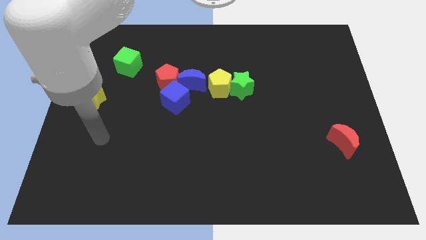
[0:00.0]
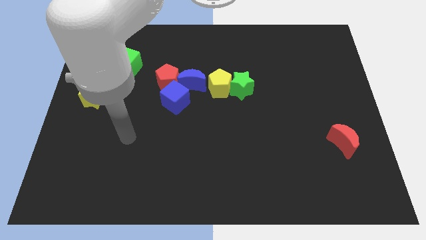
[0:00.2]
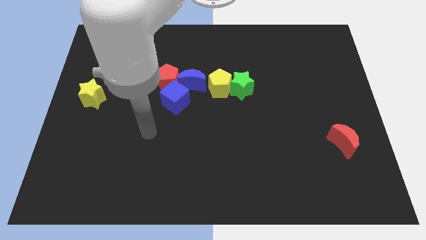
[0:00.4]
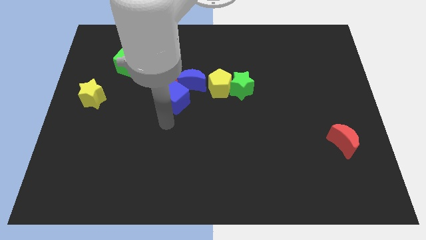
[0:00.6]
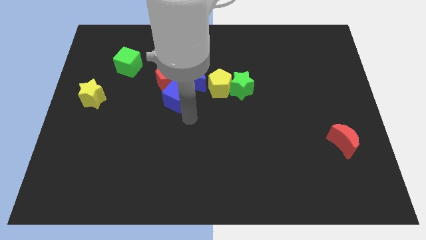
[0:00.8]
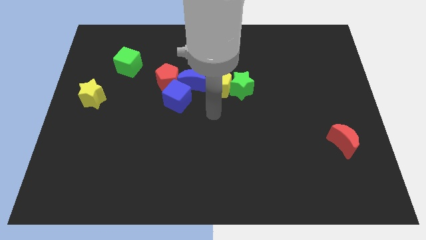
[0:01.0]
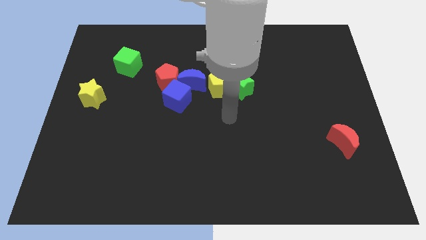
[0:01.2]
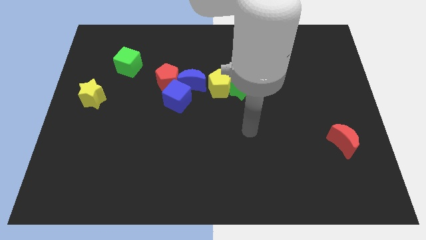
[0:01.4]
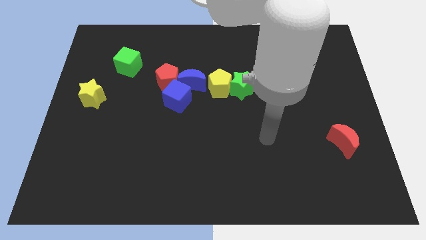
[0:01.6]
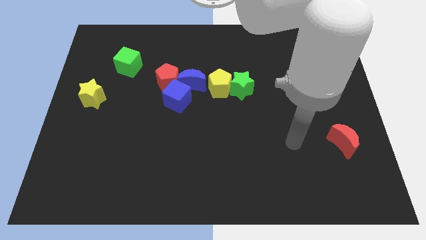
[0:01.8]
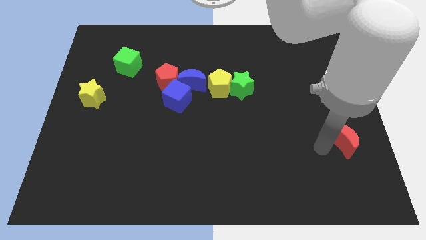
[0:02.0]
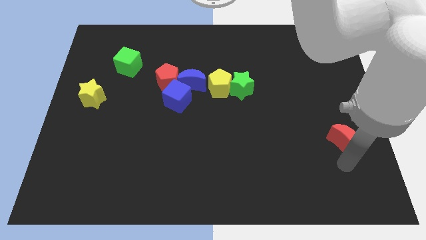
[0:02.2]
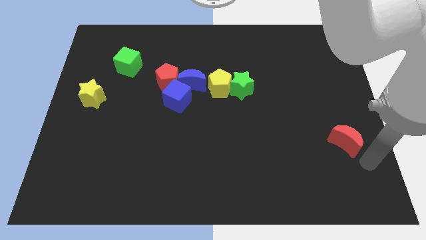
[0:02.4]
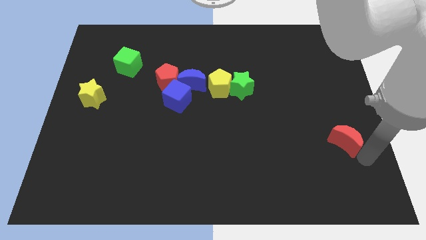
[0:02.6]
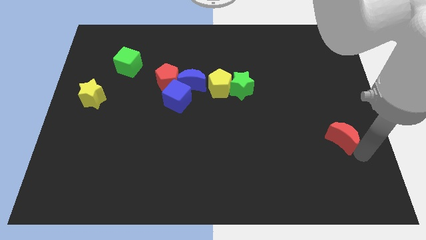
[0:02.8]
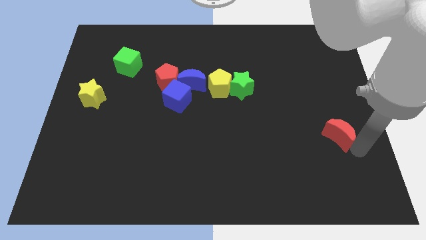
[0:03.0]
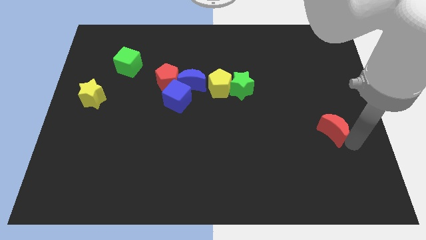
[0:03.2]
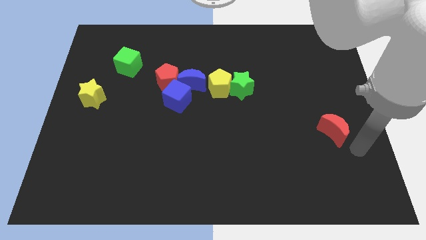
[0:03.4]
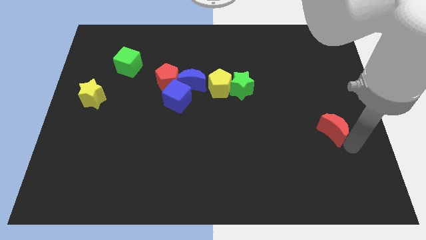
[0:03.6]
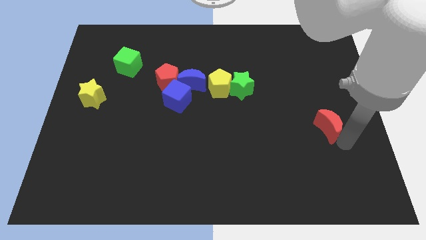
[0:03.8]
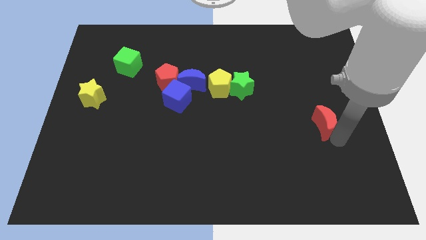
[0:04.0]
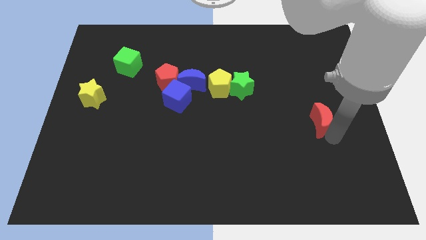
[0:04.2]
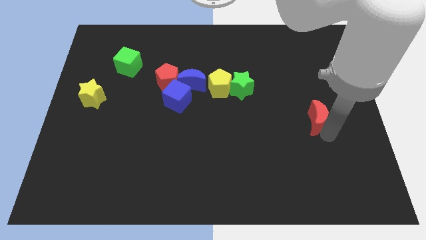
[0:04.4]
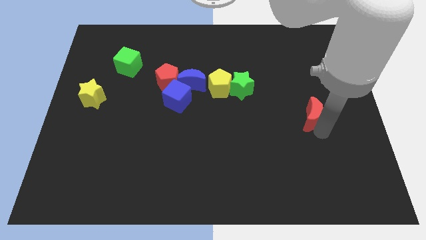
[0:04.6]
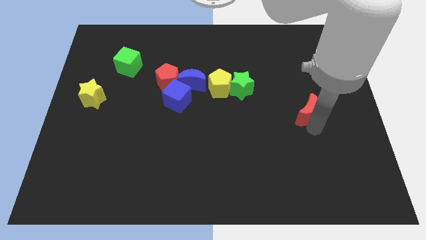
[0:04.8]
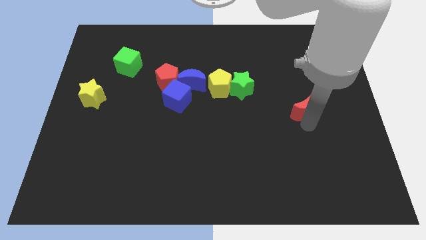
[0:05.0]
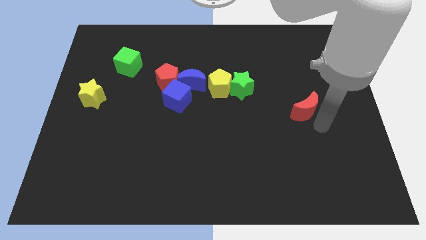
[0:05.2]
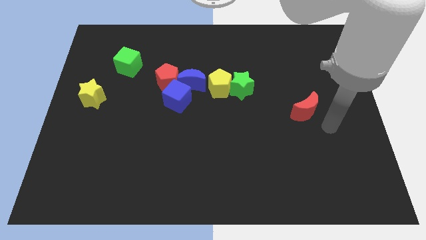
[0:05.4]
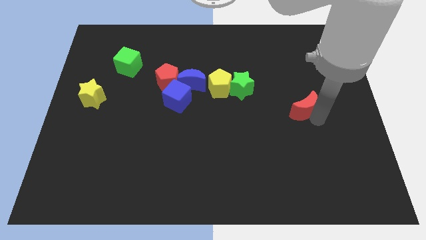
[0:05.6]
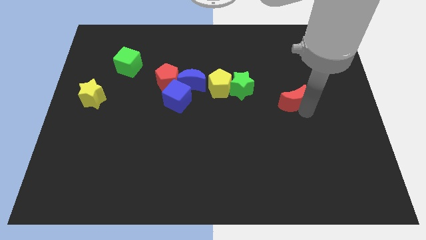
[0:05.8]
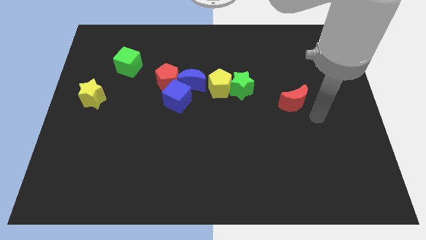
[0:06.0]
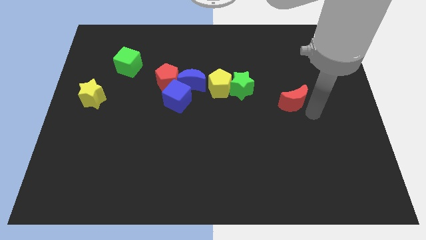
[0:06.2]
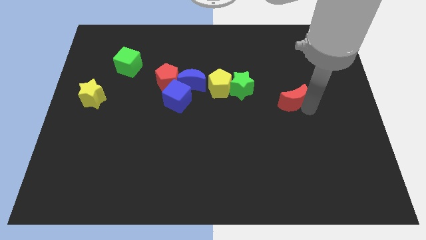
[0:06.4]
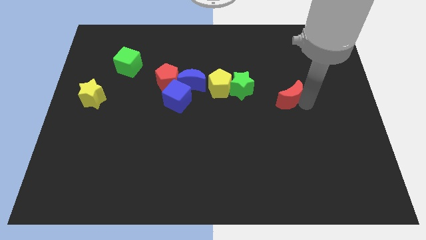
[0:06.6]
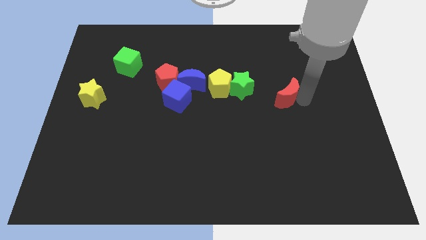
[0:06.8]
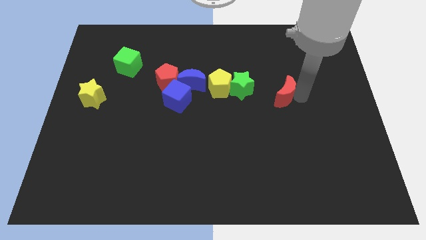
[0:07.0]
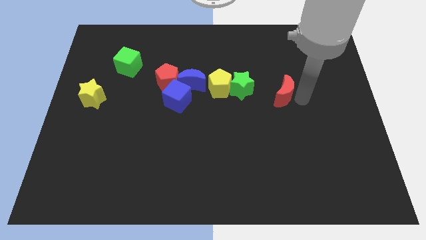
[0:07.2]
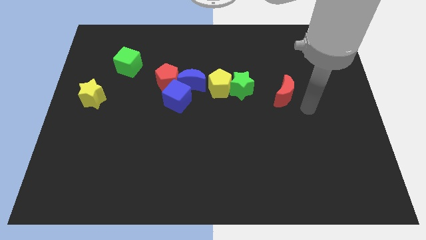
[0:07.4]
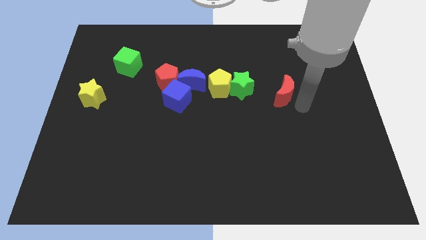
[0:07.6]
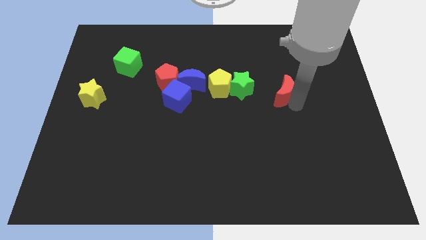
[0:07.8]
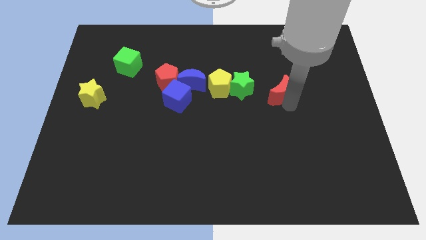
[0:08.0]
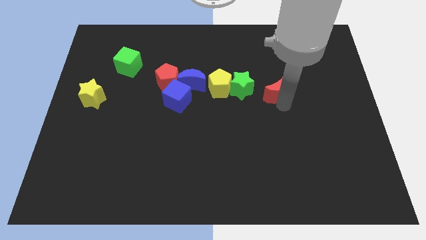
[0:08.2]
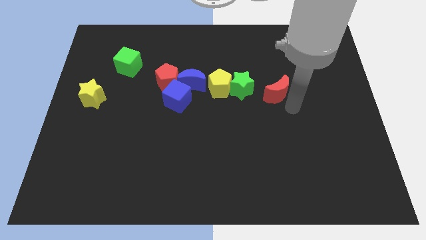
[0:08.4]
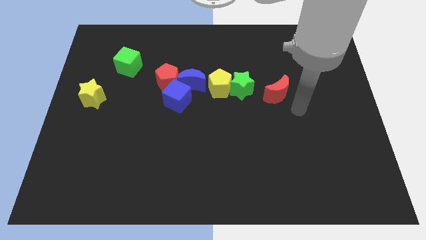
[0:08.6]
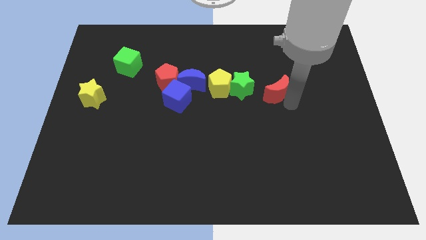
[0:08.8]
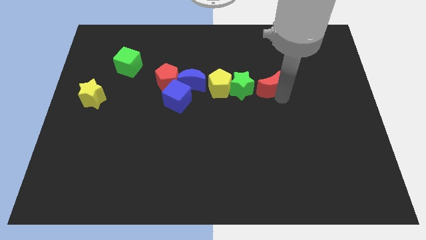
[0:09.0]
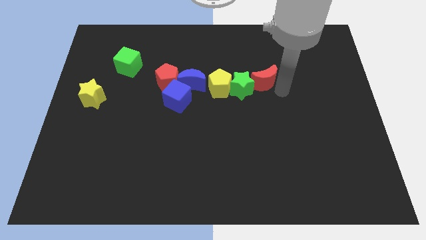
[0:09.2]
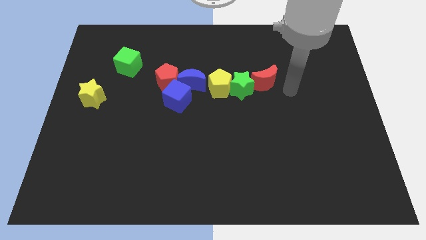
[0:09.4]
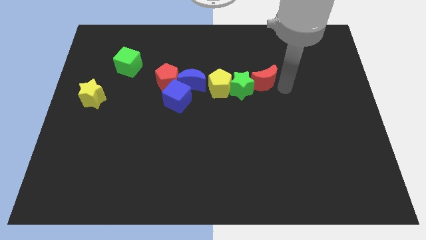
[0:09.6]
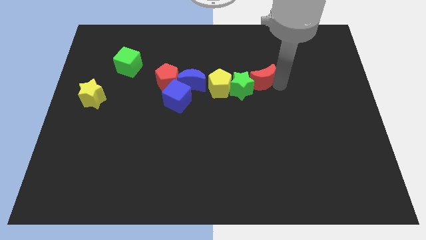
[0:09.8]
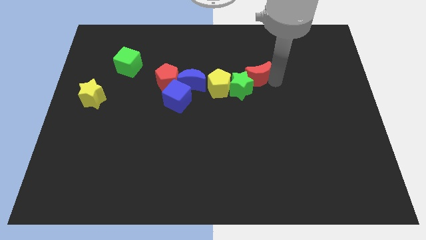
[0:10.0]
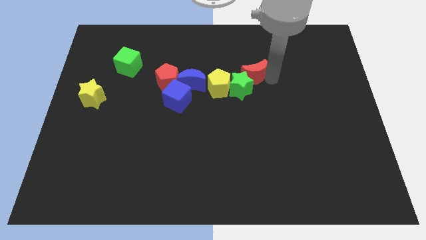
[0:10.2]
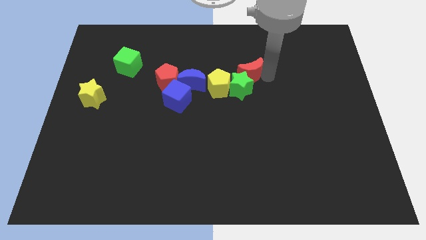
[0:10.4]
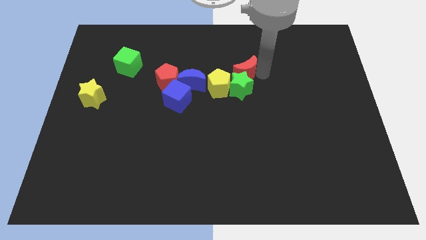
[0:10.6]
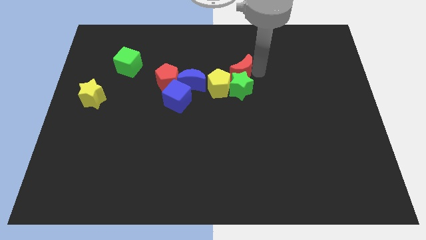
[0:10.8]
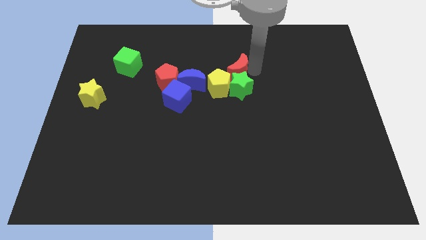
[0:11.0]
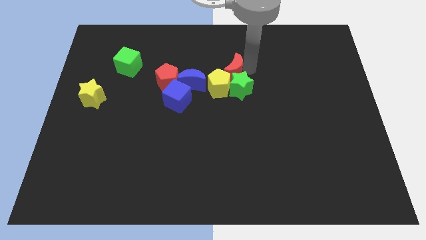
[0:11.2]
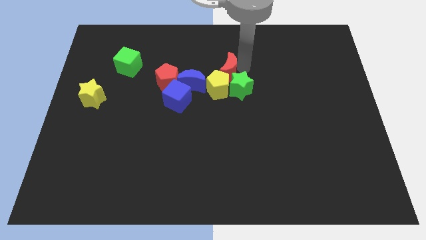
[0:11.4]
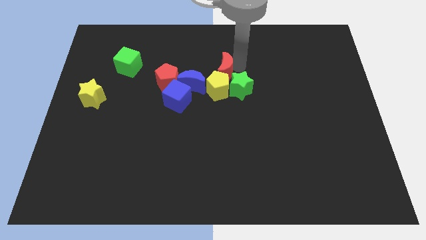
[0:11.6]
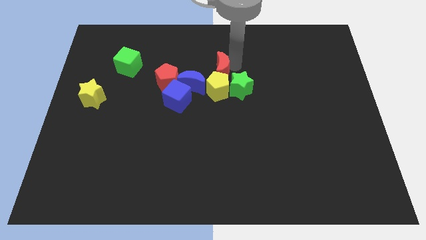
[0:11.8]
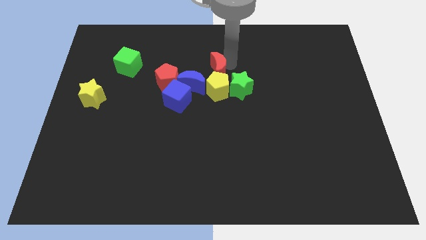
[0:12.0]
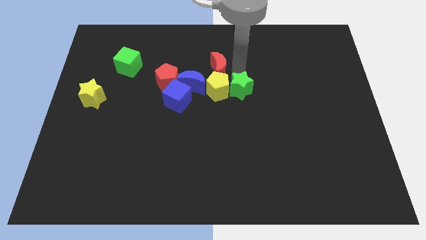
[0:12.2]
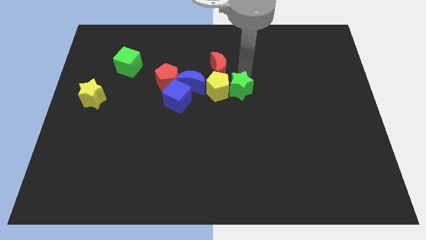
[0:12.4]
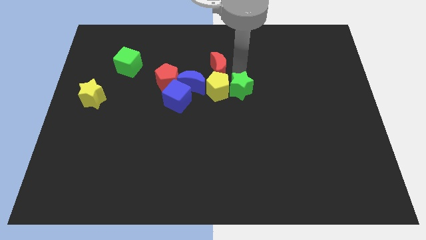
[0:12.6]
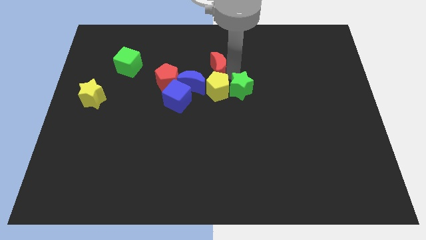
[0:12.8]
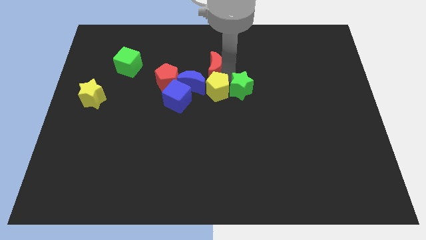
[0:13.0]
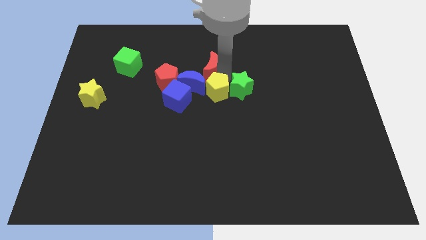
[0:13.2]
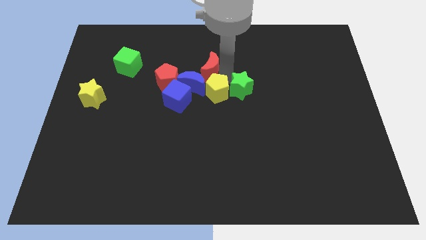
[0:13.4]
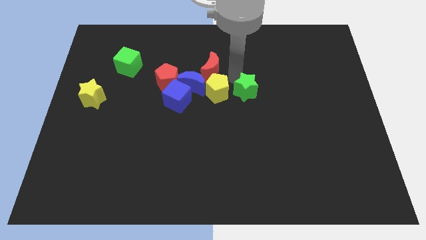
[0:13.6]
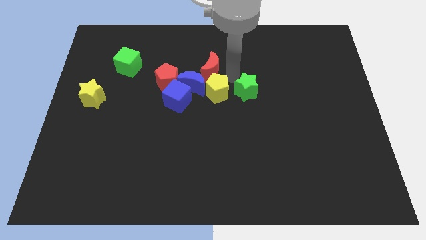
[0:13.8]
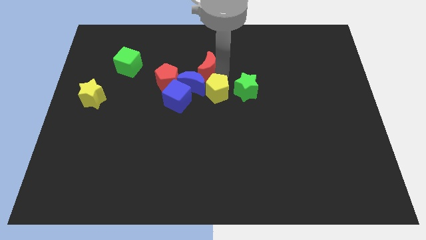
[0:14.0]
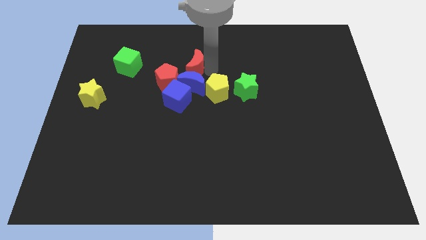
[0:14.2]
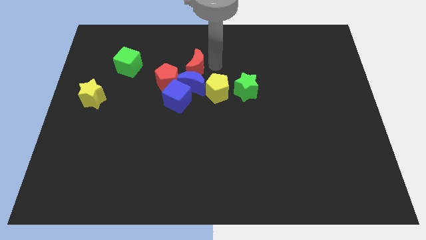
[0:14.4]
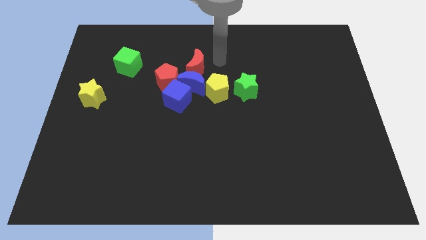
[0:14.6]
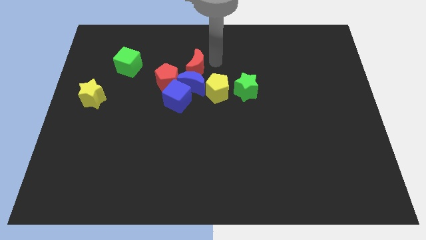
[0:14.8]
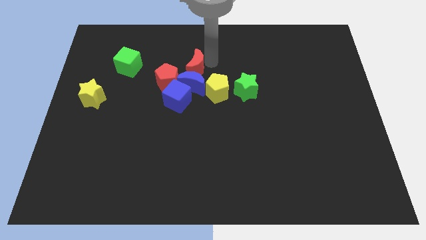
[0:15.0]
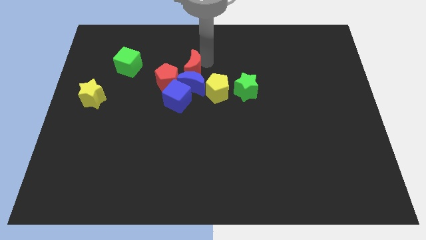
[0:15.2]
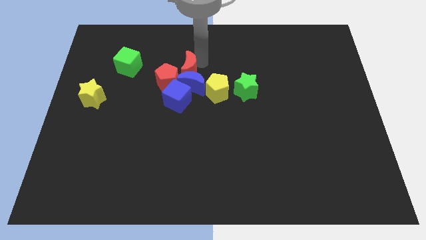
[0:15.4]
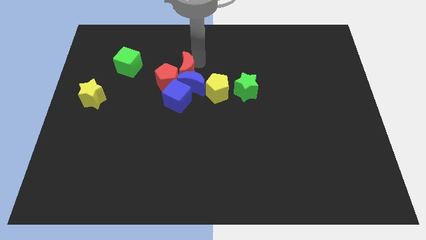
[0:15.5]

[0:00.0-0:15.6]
move the red moon close to the red pentagon
